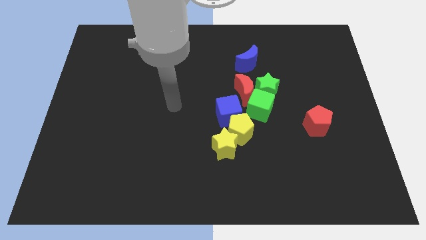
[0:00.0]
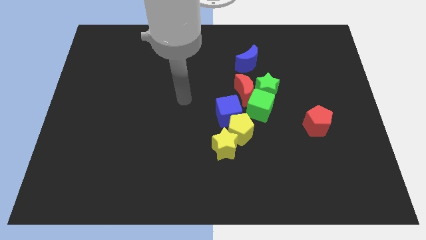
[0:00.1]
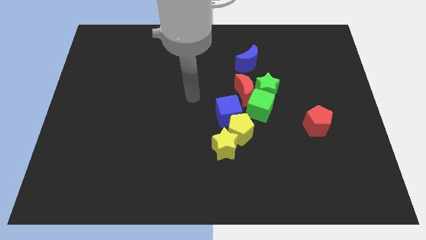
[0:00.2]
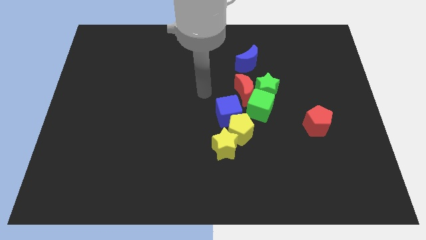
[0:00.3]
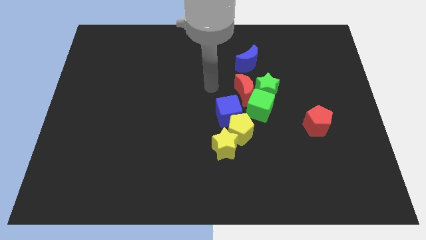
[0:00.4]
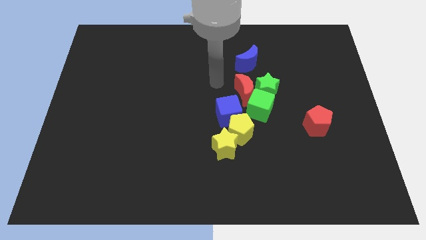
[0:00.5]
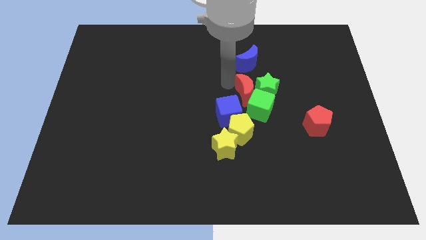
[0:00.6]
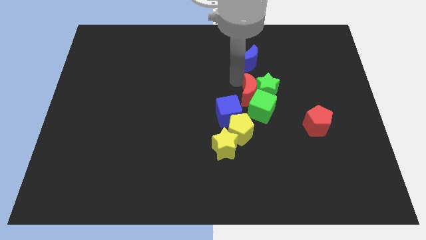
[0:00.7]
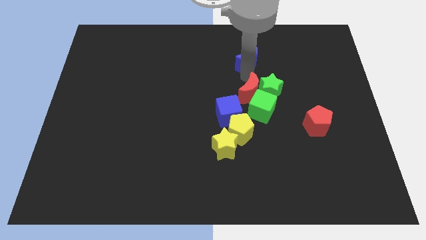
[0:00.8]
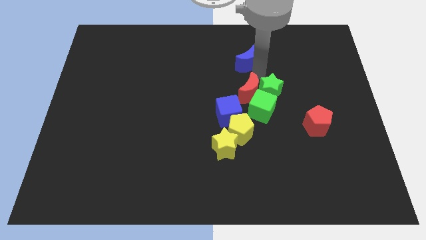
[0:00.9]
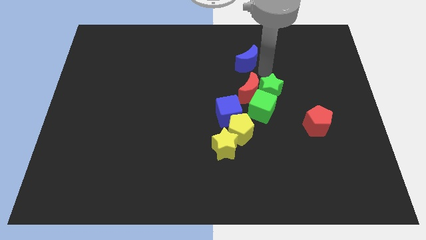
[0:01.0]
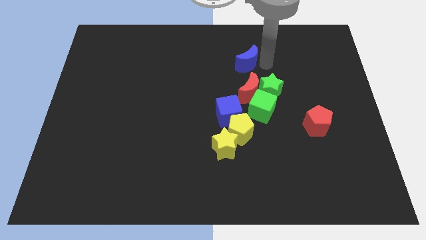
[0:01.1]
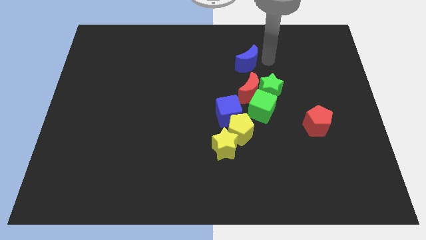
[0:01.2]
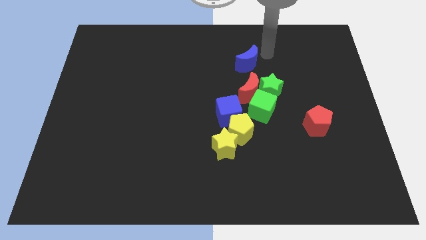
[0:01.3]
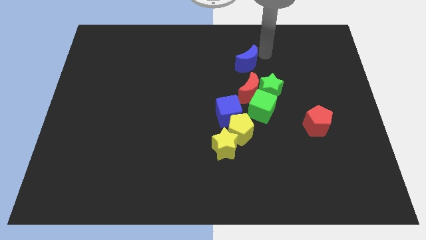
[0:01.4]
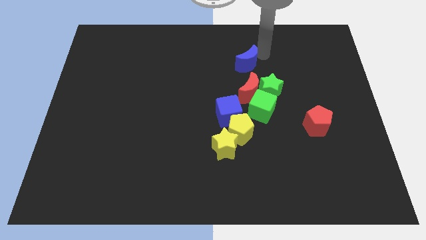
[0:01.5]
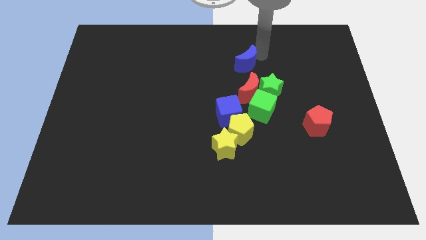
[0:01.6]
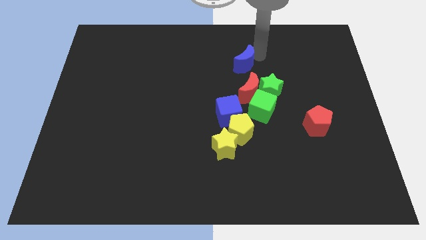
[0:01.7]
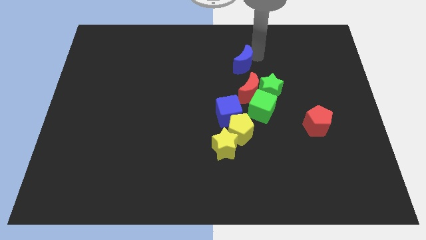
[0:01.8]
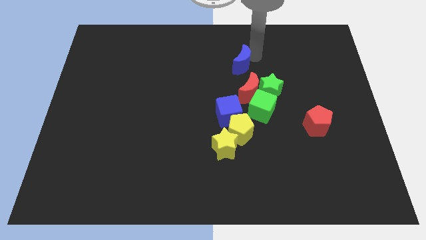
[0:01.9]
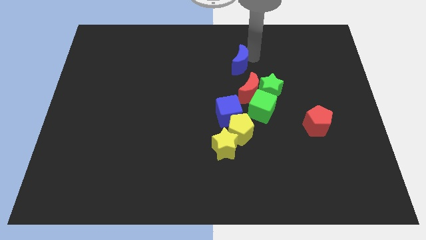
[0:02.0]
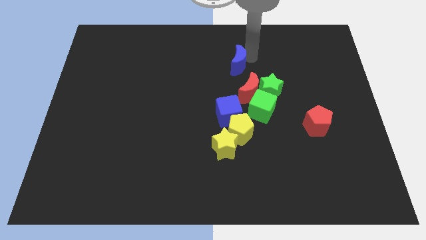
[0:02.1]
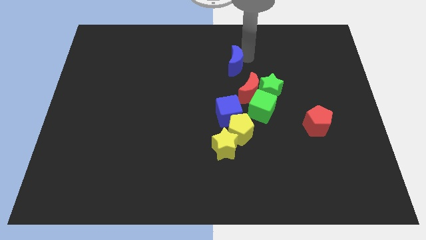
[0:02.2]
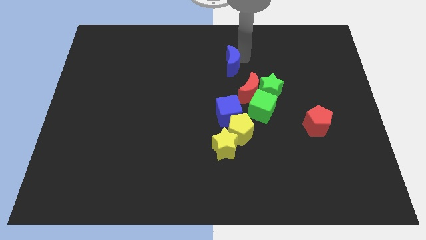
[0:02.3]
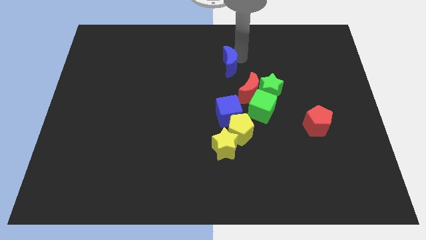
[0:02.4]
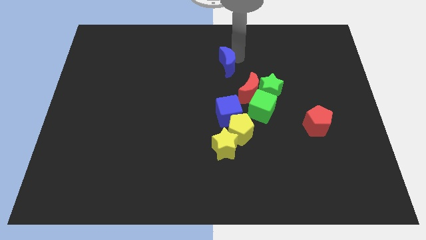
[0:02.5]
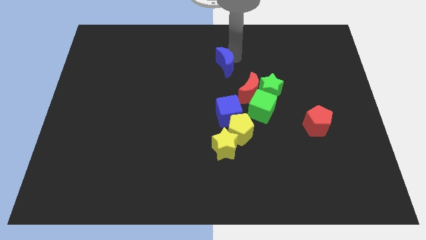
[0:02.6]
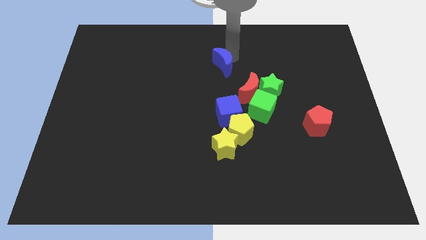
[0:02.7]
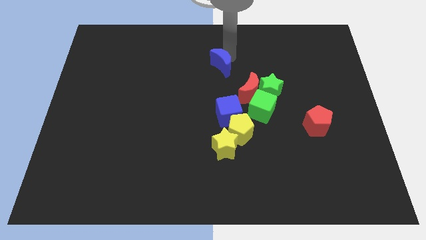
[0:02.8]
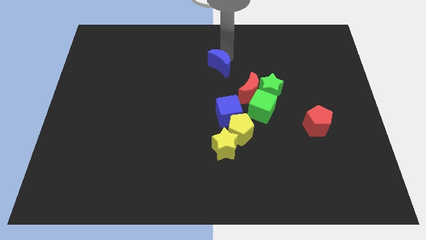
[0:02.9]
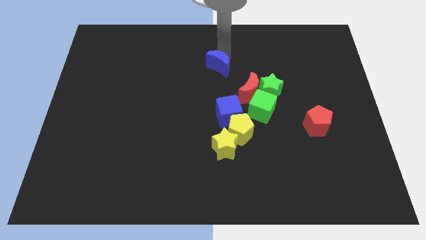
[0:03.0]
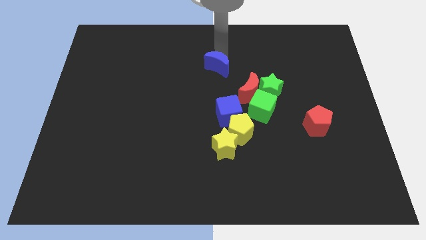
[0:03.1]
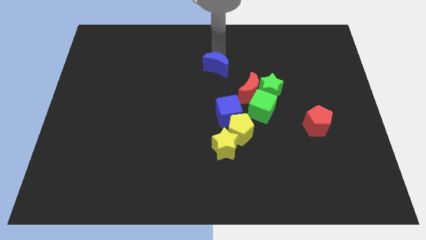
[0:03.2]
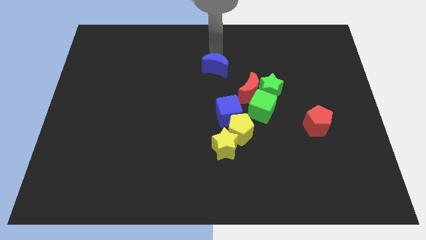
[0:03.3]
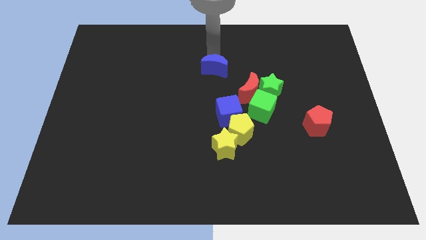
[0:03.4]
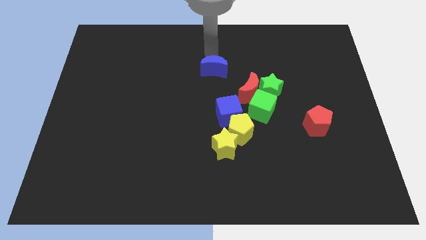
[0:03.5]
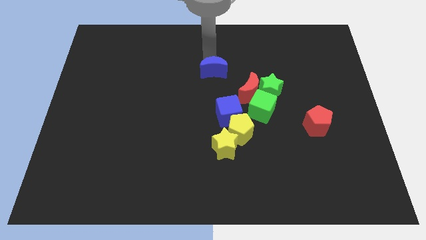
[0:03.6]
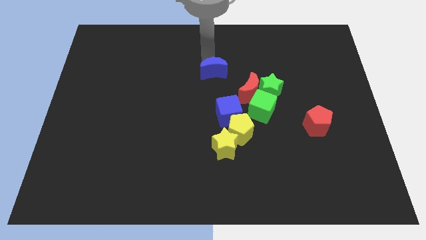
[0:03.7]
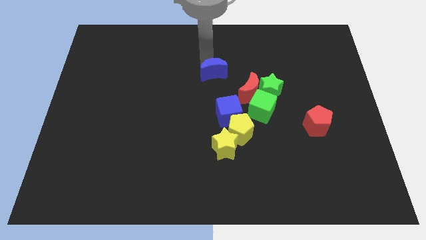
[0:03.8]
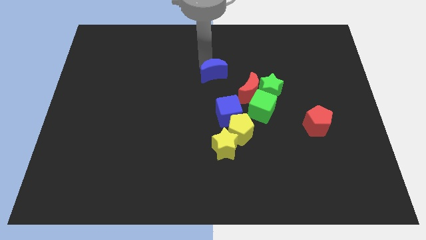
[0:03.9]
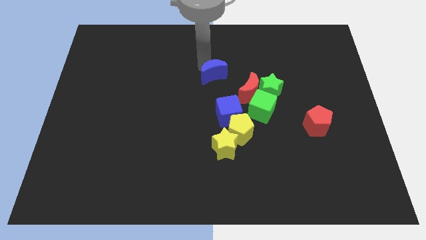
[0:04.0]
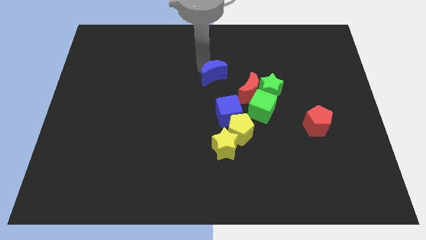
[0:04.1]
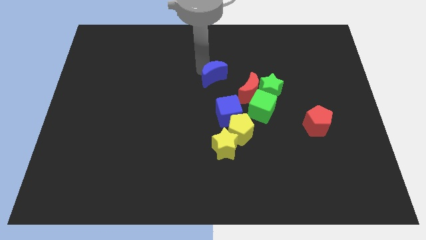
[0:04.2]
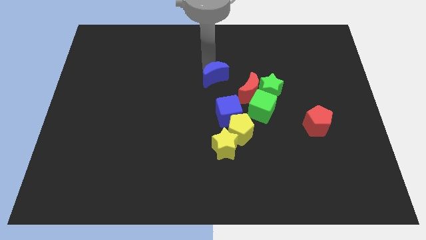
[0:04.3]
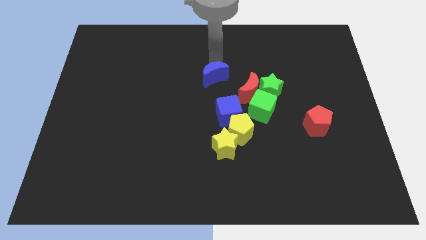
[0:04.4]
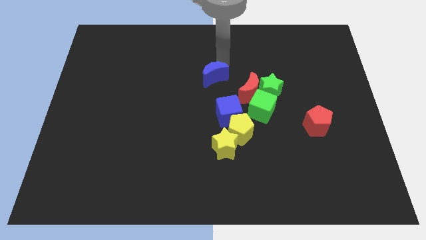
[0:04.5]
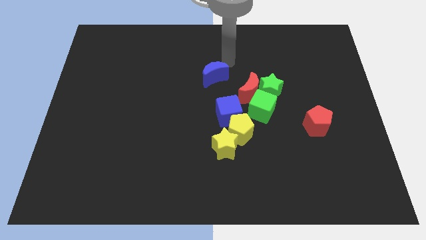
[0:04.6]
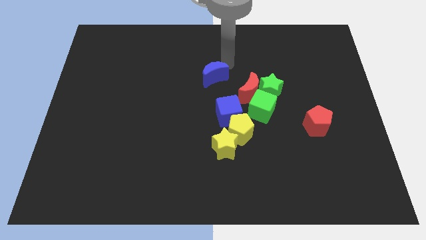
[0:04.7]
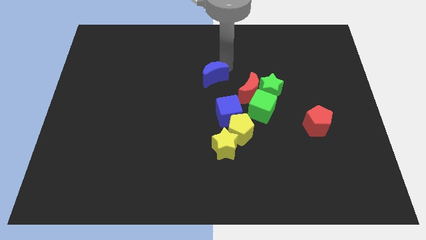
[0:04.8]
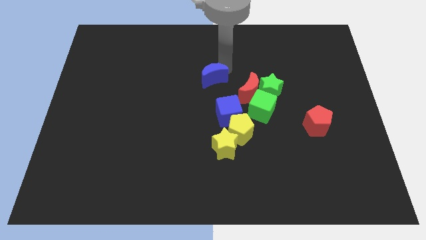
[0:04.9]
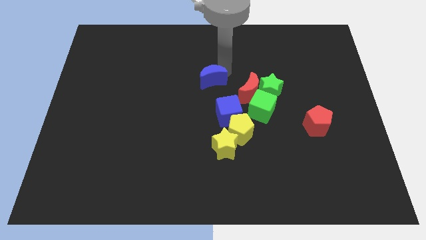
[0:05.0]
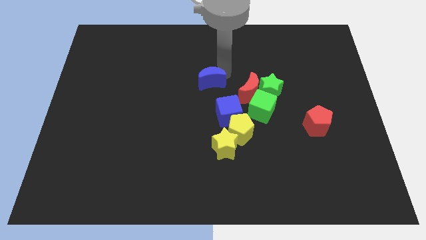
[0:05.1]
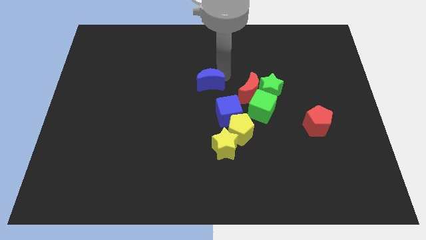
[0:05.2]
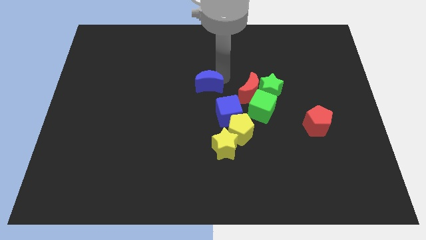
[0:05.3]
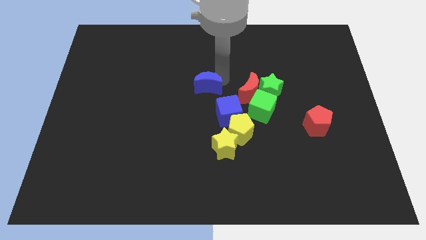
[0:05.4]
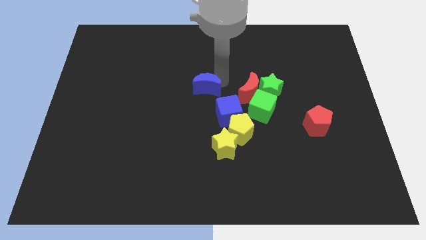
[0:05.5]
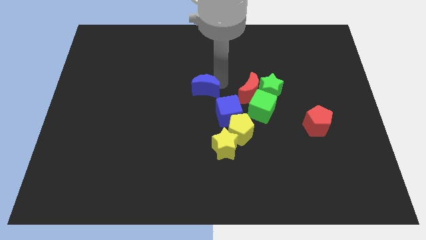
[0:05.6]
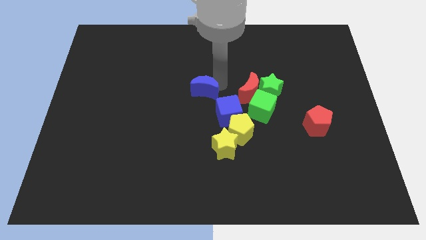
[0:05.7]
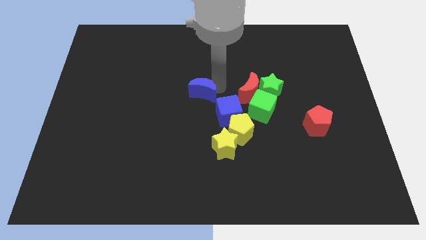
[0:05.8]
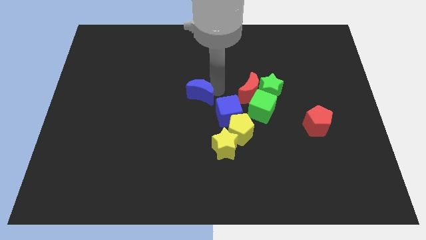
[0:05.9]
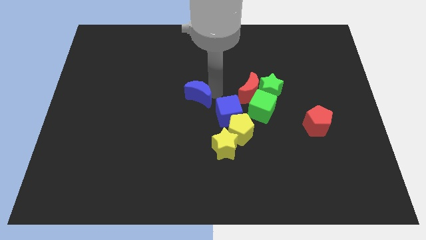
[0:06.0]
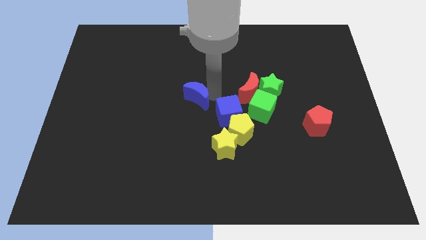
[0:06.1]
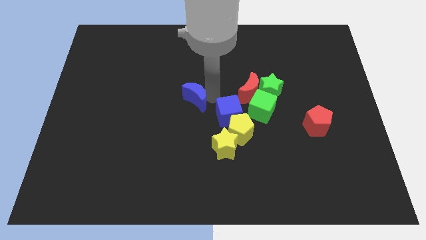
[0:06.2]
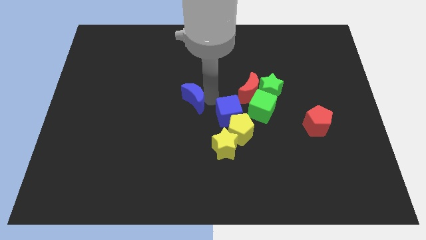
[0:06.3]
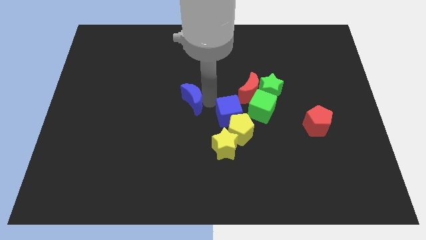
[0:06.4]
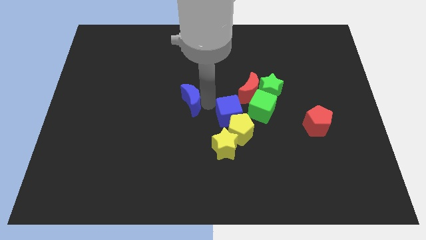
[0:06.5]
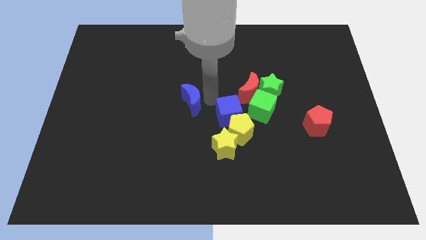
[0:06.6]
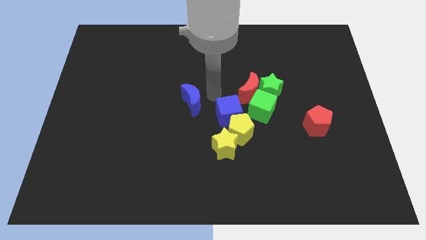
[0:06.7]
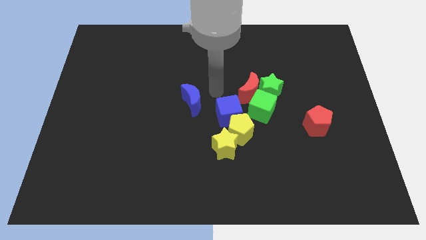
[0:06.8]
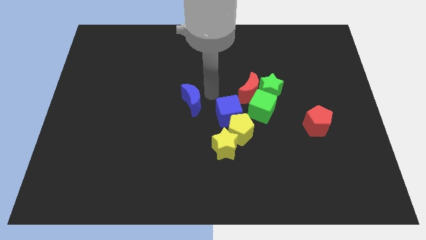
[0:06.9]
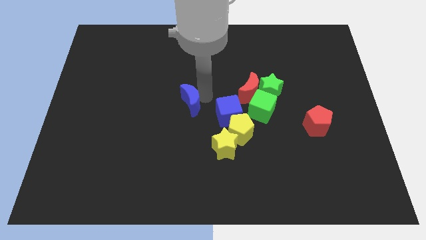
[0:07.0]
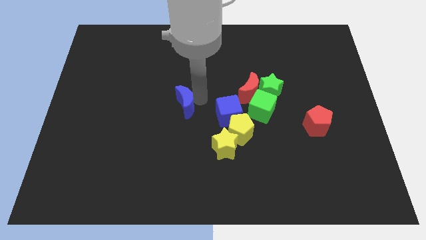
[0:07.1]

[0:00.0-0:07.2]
slide the blue moon down and left diagonally

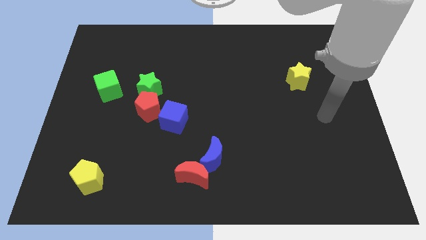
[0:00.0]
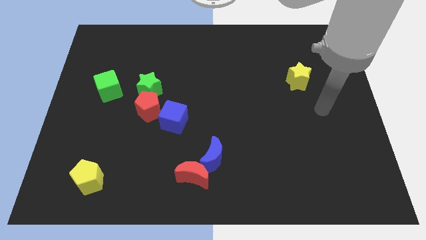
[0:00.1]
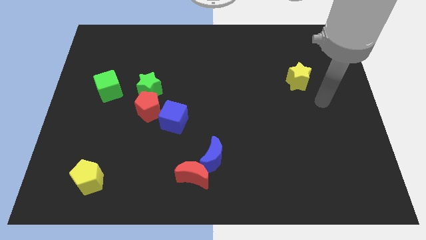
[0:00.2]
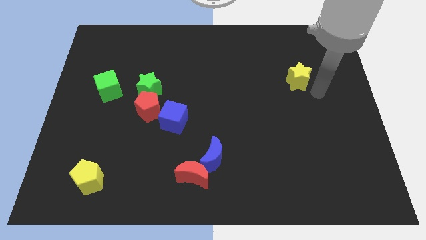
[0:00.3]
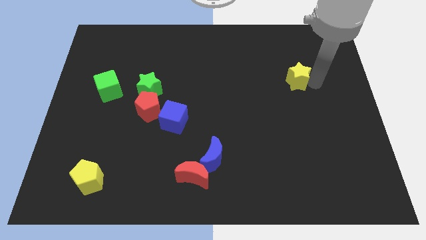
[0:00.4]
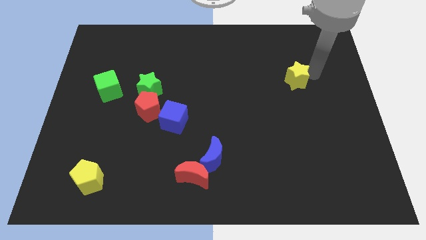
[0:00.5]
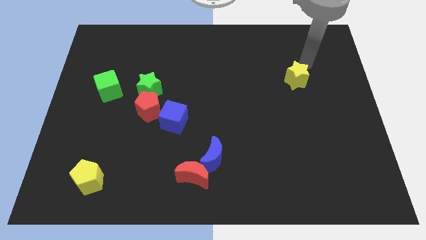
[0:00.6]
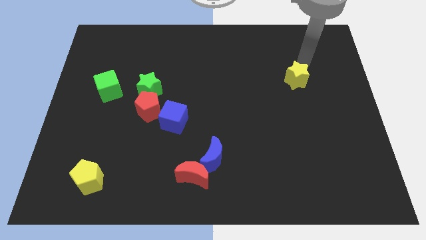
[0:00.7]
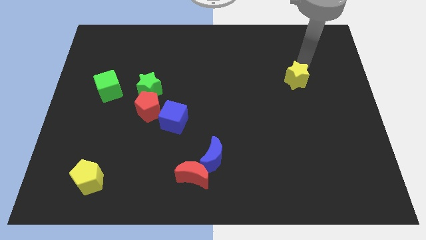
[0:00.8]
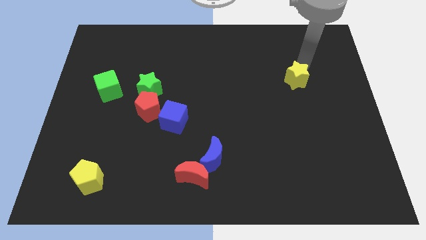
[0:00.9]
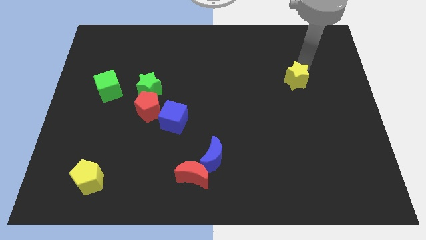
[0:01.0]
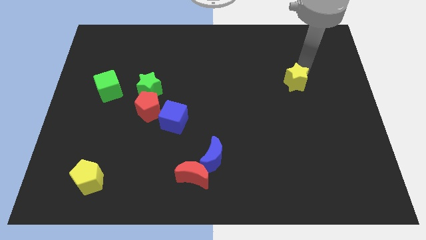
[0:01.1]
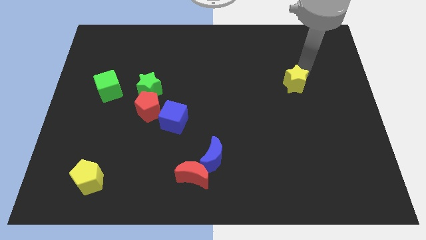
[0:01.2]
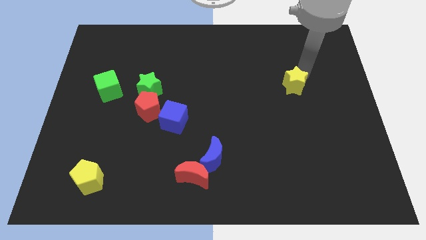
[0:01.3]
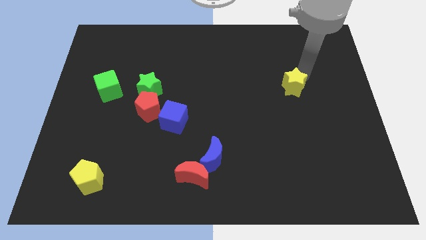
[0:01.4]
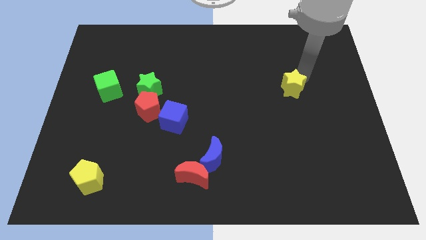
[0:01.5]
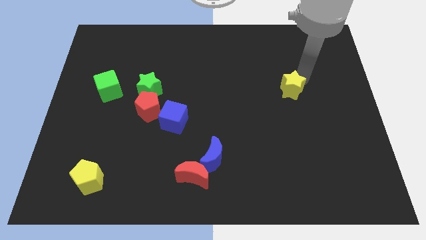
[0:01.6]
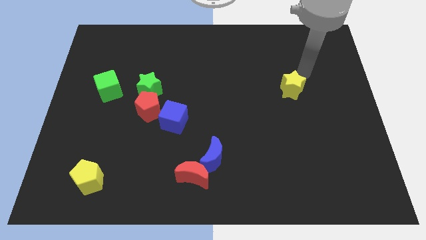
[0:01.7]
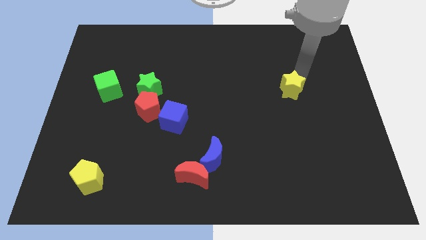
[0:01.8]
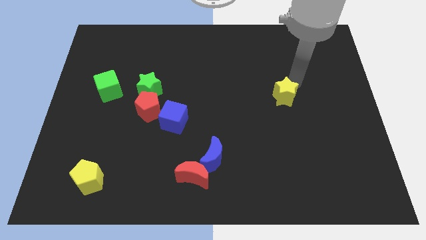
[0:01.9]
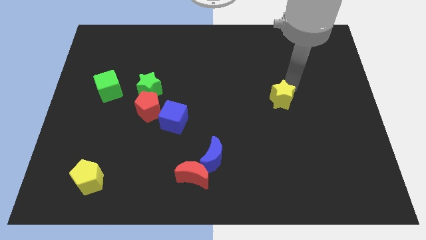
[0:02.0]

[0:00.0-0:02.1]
move the yellow star somewhat down and then to the left
